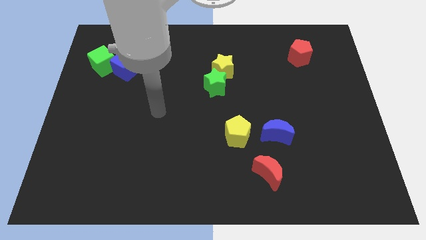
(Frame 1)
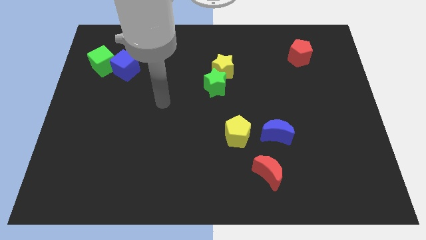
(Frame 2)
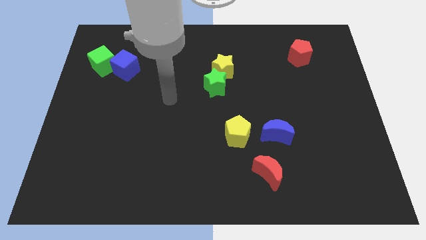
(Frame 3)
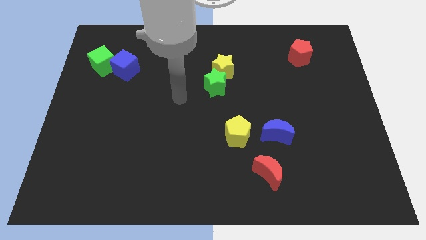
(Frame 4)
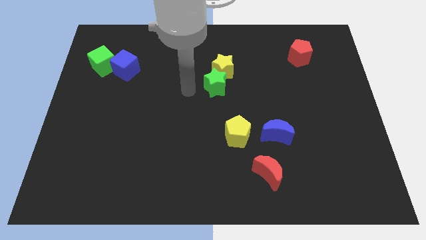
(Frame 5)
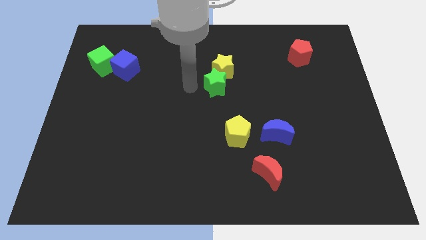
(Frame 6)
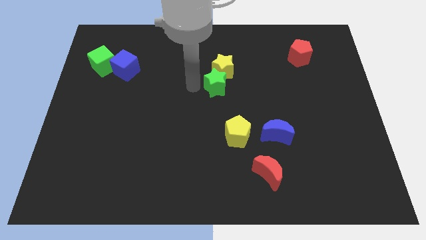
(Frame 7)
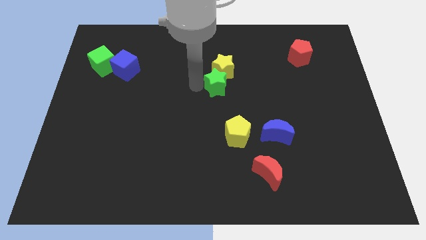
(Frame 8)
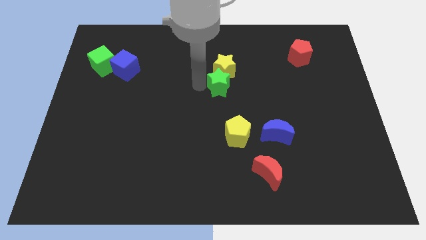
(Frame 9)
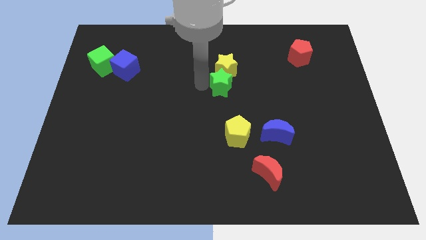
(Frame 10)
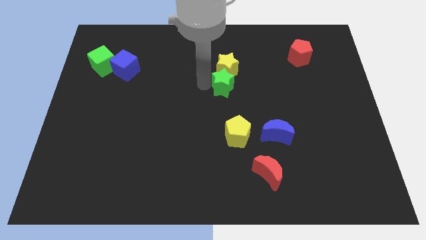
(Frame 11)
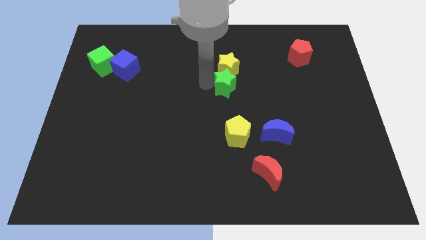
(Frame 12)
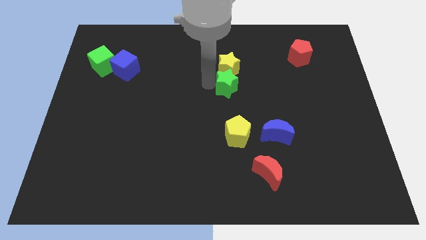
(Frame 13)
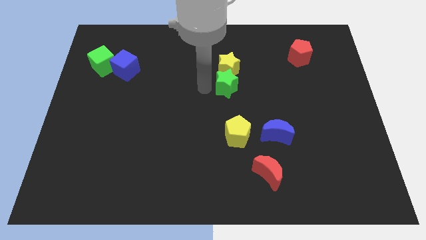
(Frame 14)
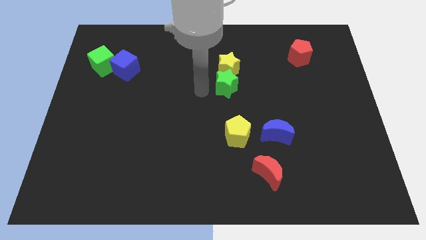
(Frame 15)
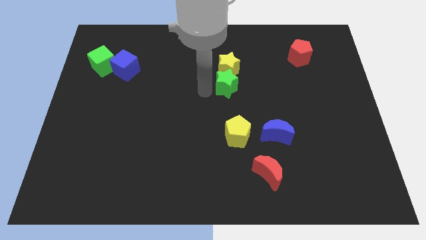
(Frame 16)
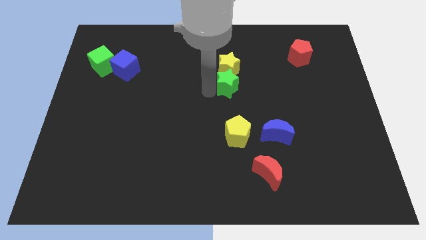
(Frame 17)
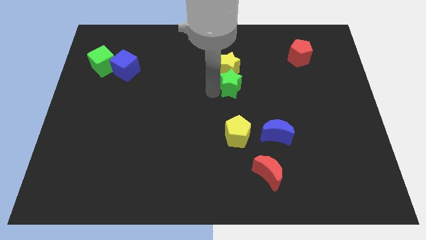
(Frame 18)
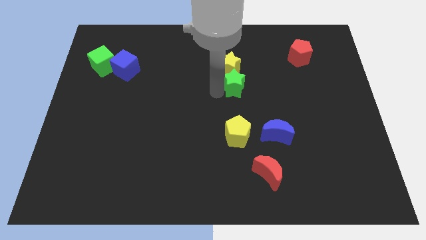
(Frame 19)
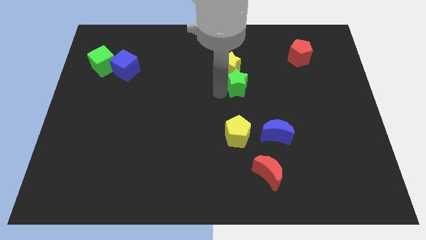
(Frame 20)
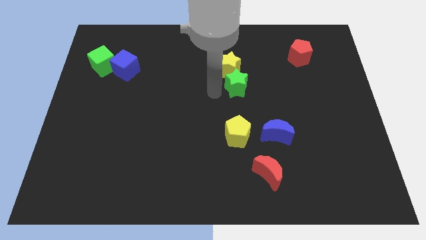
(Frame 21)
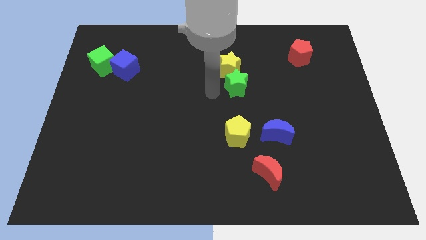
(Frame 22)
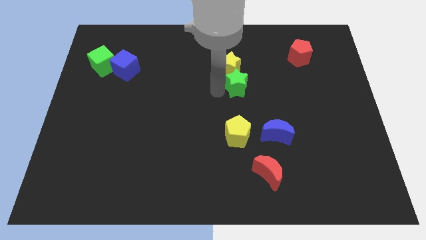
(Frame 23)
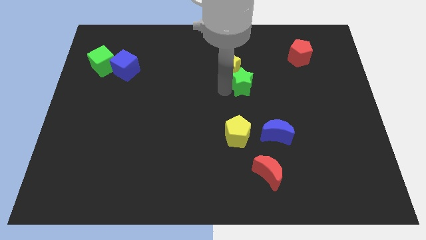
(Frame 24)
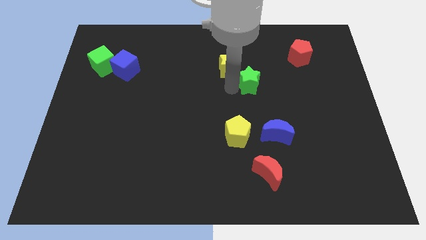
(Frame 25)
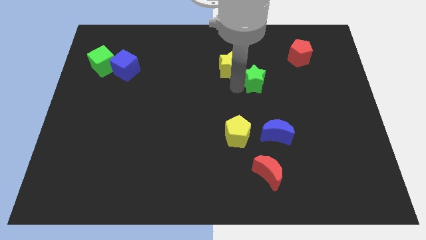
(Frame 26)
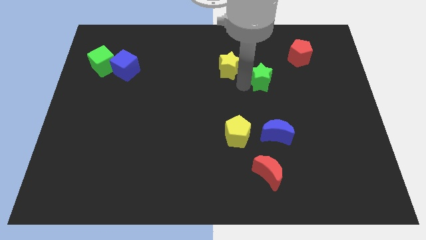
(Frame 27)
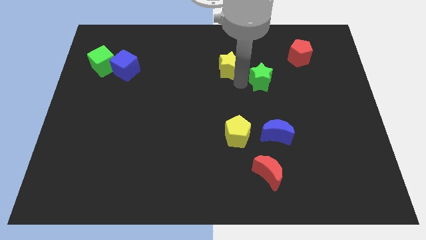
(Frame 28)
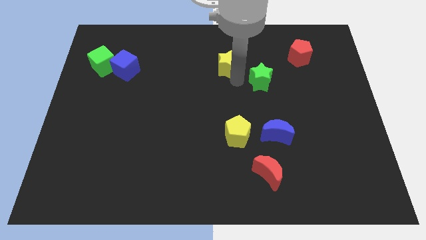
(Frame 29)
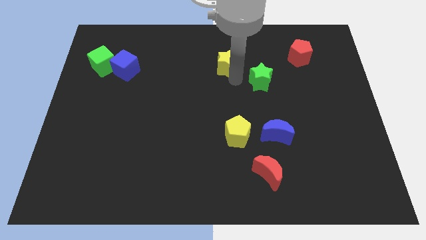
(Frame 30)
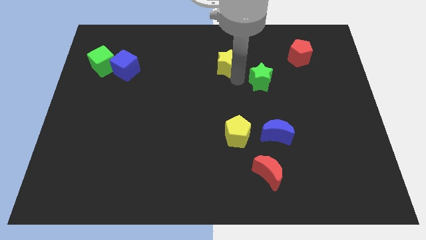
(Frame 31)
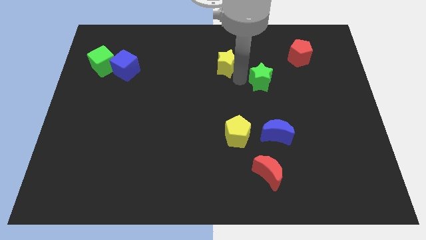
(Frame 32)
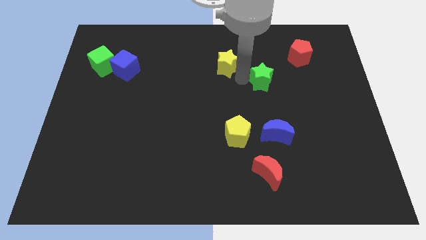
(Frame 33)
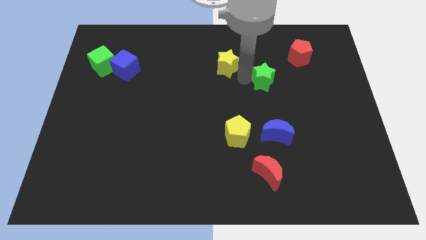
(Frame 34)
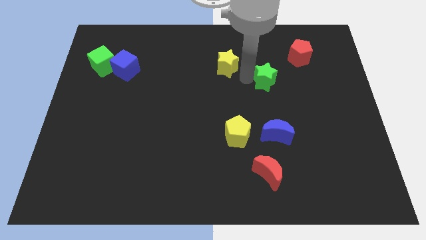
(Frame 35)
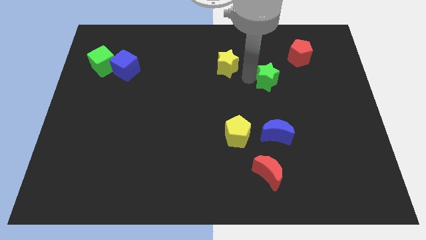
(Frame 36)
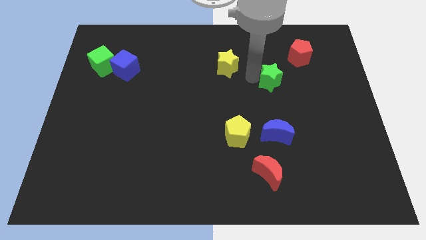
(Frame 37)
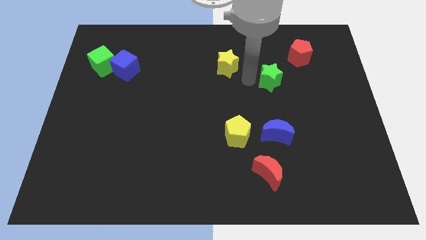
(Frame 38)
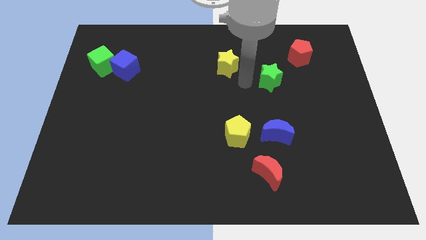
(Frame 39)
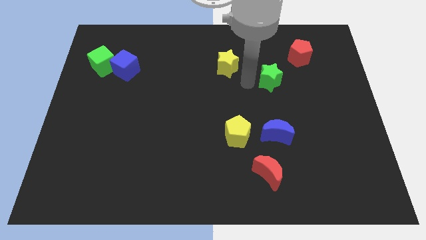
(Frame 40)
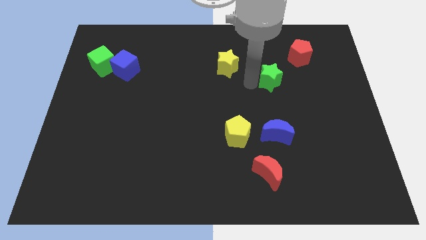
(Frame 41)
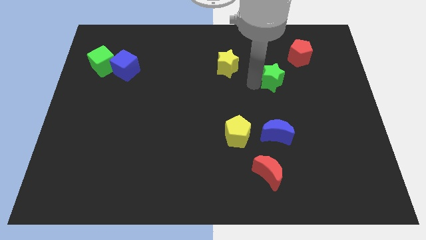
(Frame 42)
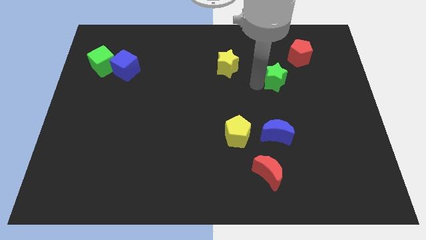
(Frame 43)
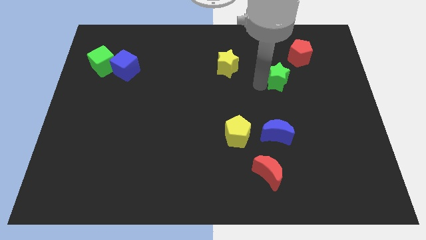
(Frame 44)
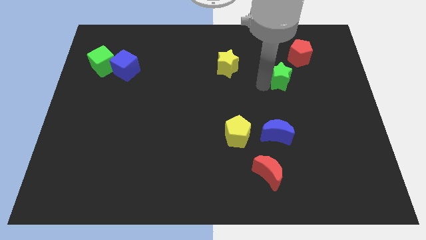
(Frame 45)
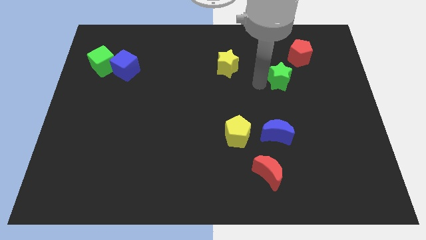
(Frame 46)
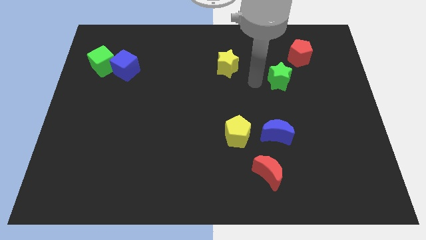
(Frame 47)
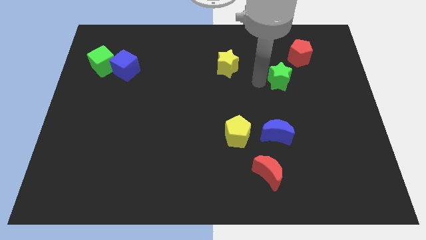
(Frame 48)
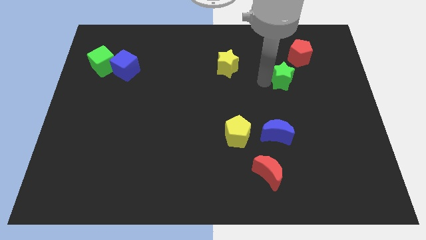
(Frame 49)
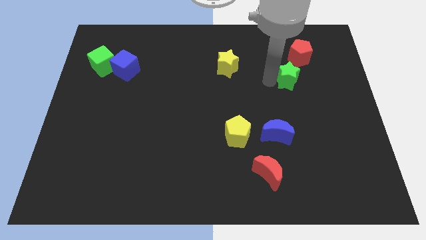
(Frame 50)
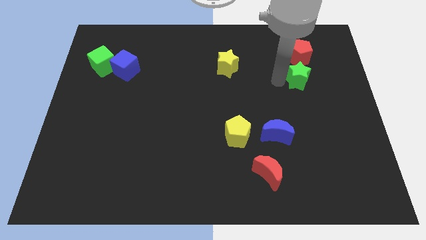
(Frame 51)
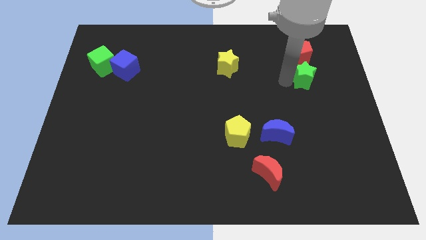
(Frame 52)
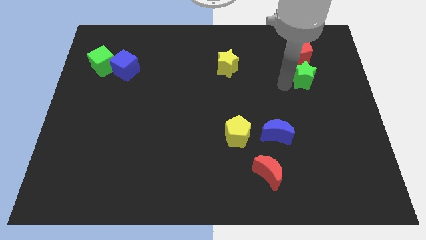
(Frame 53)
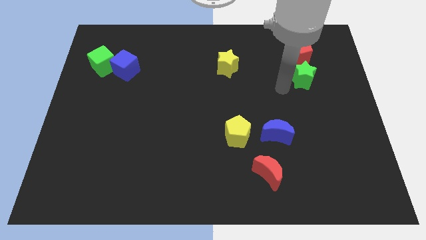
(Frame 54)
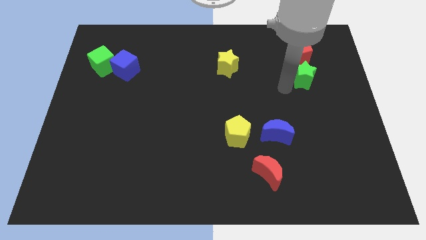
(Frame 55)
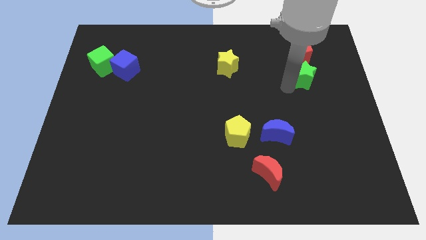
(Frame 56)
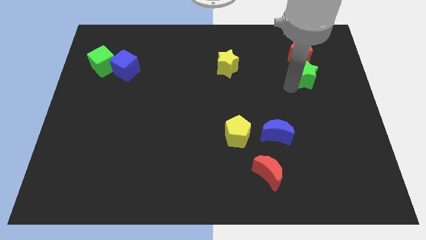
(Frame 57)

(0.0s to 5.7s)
move the green star to the bottom right of the red pentagon
